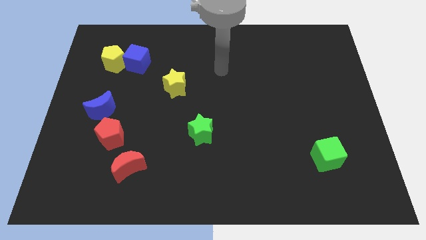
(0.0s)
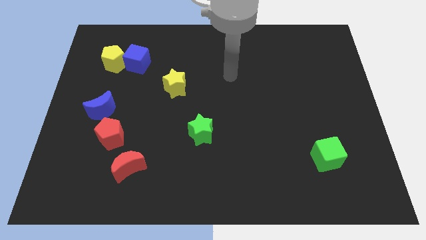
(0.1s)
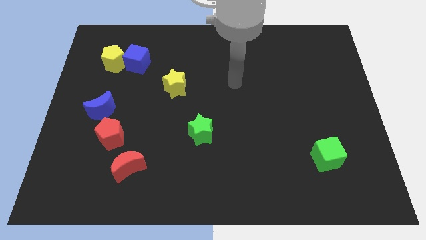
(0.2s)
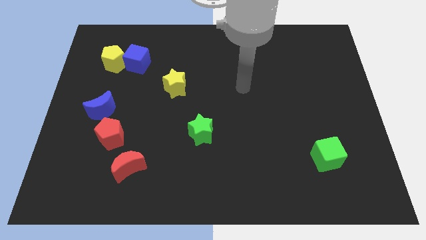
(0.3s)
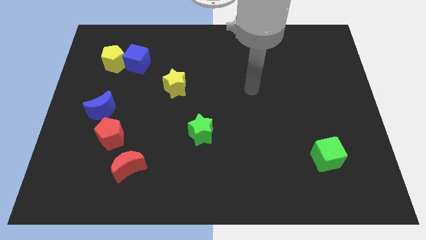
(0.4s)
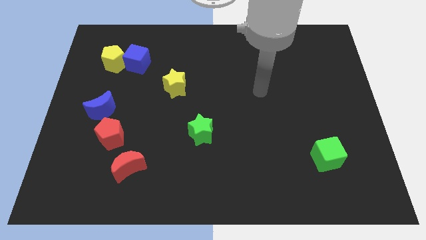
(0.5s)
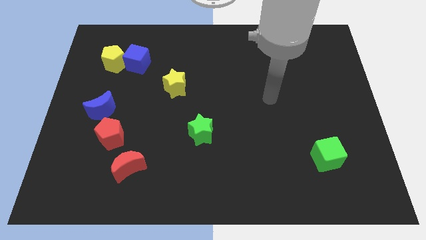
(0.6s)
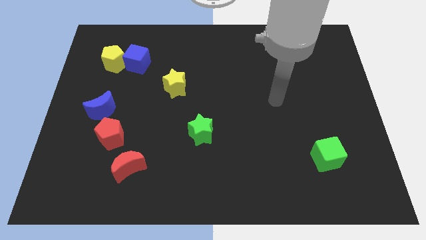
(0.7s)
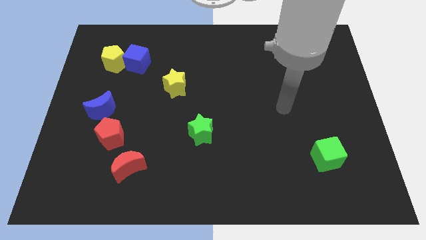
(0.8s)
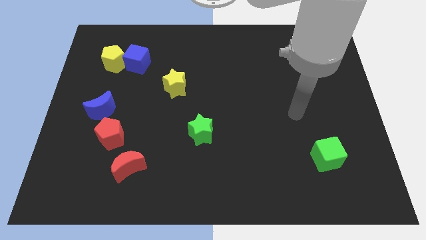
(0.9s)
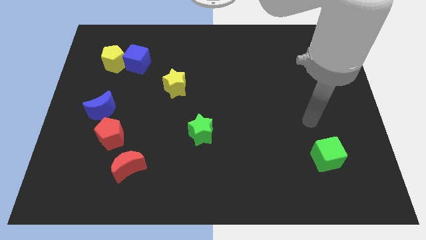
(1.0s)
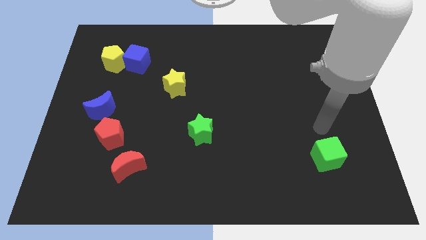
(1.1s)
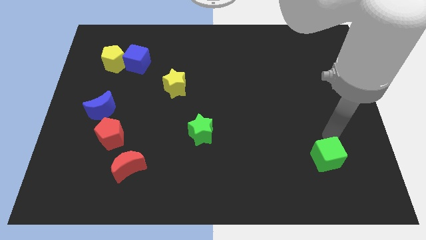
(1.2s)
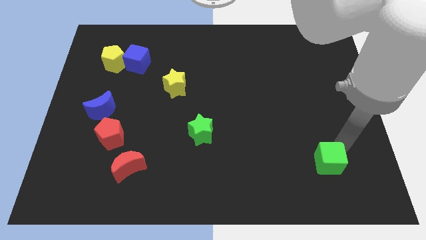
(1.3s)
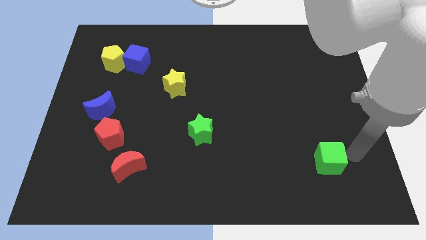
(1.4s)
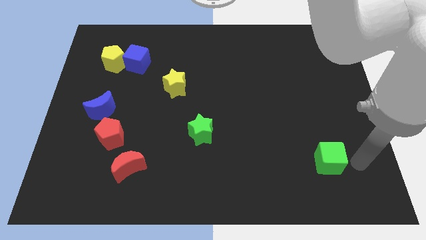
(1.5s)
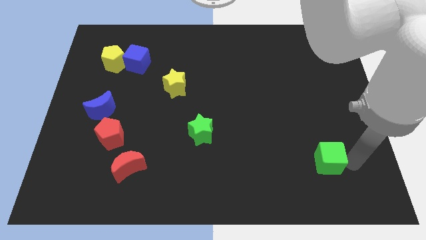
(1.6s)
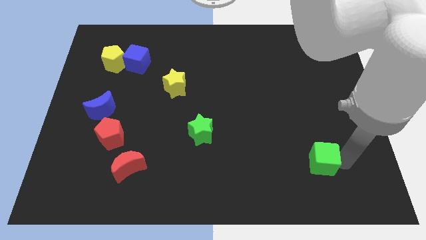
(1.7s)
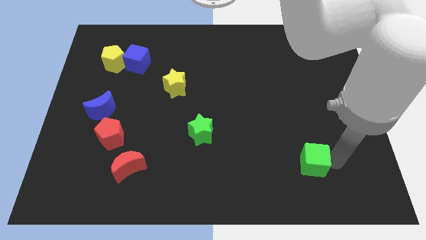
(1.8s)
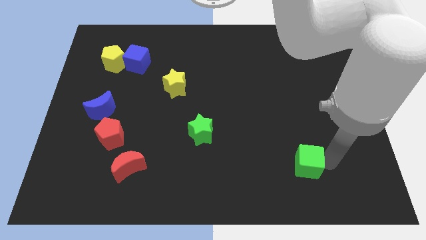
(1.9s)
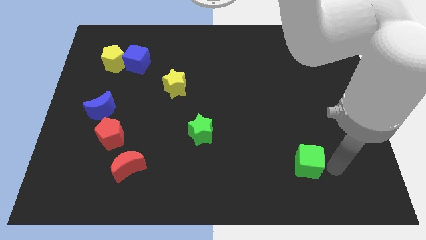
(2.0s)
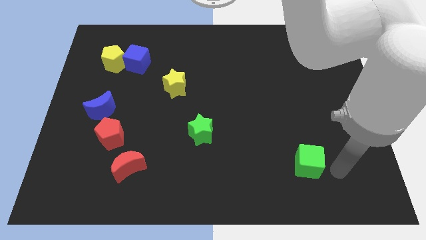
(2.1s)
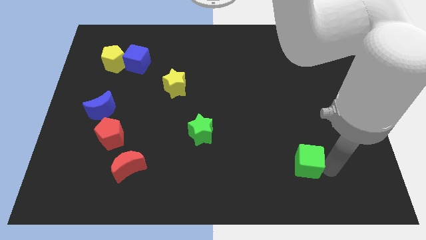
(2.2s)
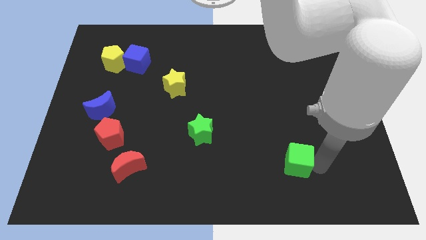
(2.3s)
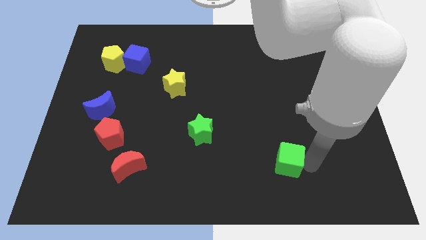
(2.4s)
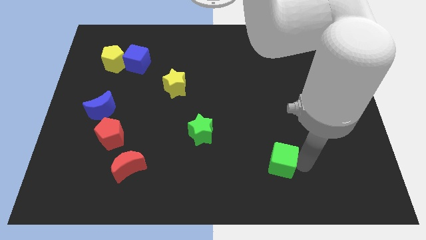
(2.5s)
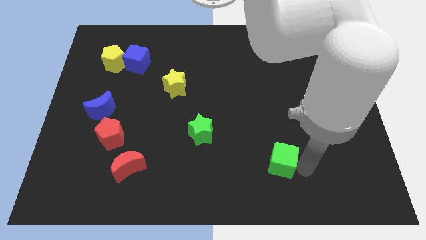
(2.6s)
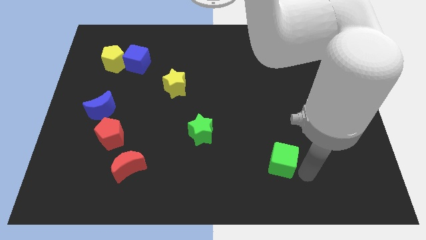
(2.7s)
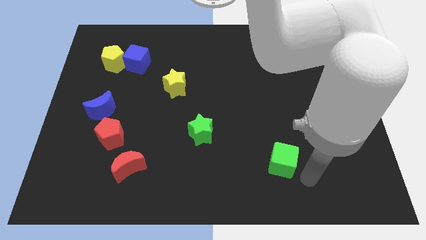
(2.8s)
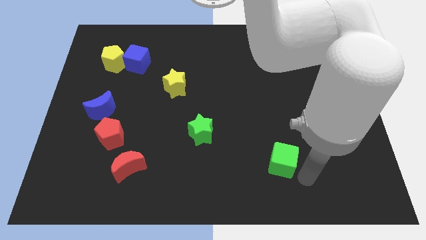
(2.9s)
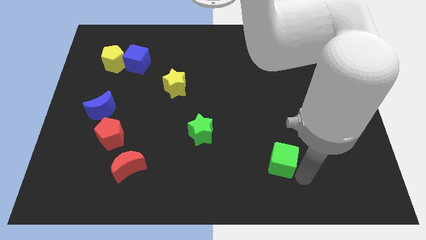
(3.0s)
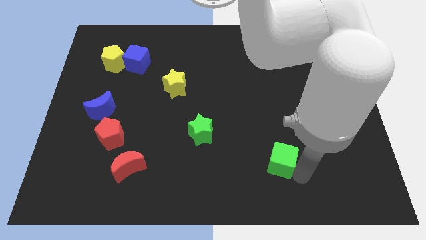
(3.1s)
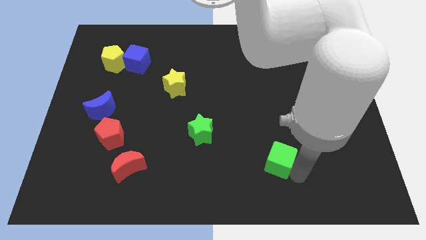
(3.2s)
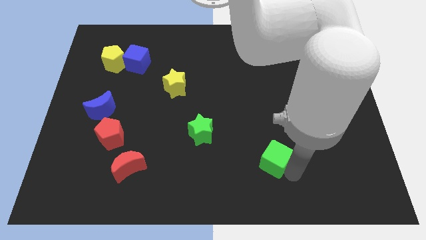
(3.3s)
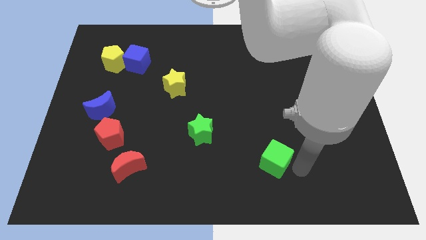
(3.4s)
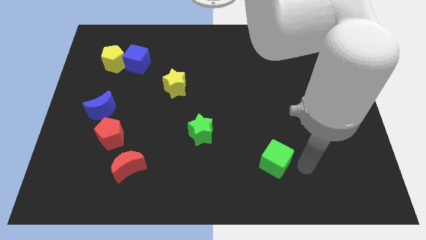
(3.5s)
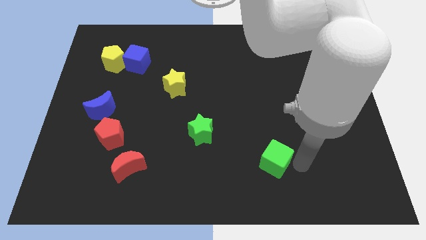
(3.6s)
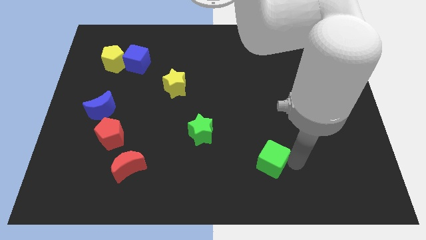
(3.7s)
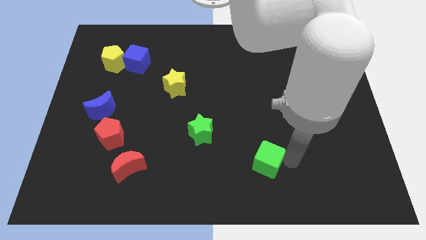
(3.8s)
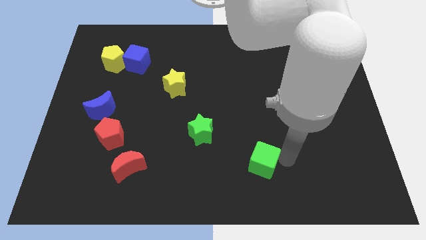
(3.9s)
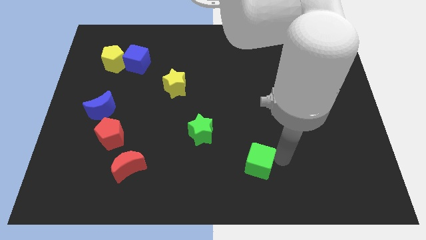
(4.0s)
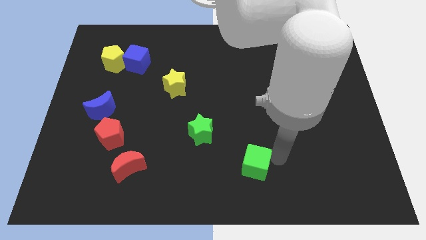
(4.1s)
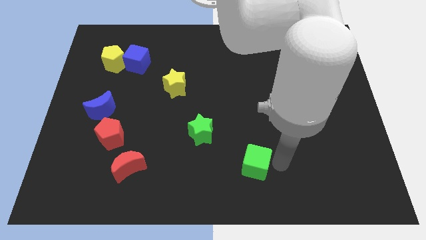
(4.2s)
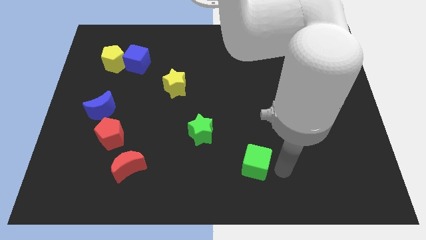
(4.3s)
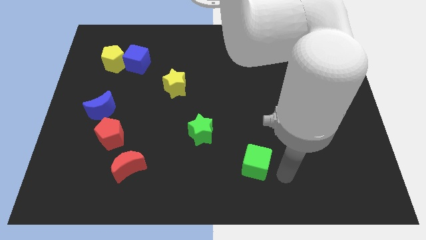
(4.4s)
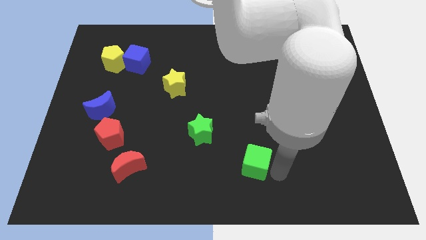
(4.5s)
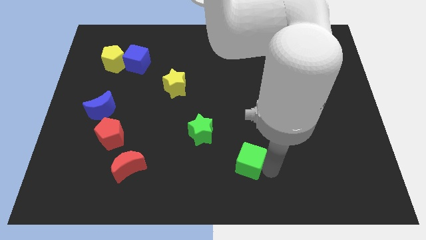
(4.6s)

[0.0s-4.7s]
slide the green cube to the bottom right of the green star

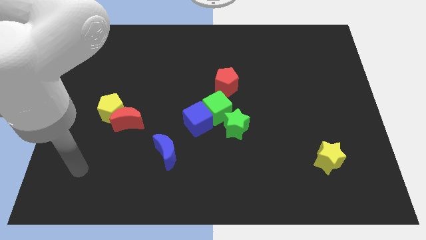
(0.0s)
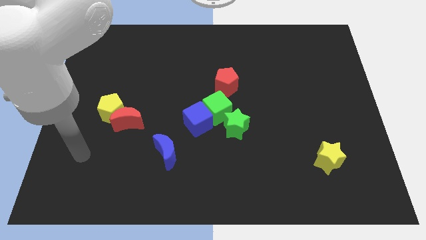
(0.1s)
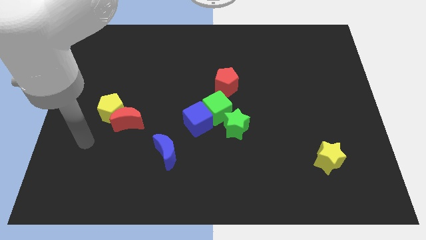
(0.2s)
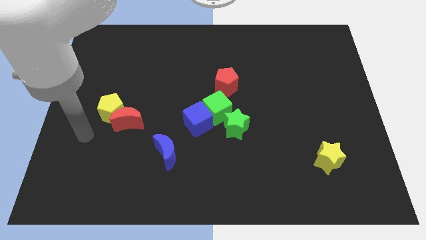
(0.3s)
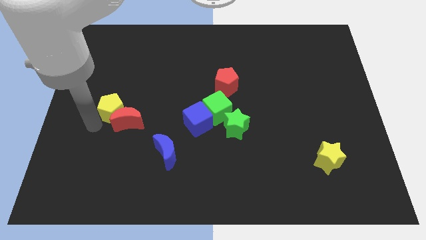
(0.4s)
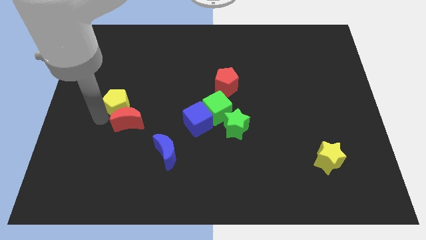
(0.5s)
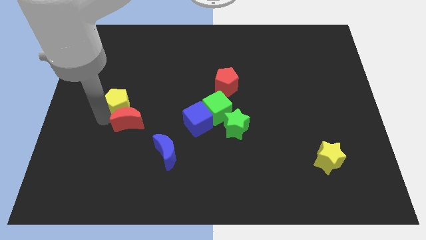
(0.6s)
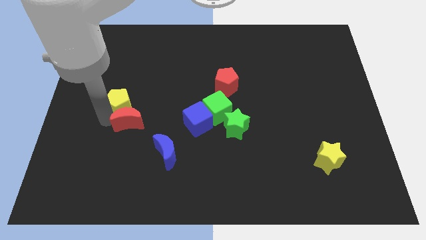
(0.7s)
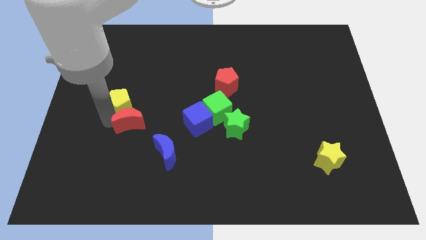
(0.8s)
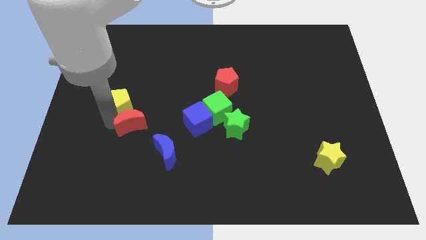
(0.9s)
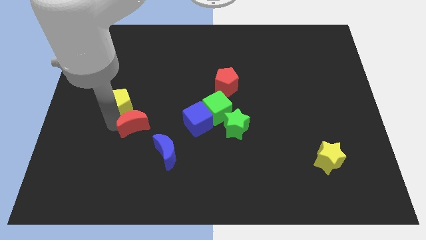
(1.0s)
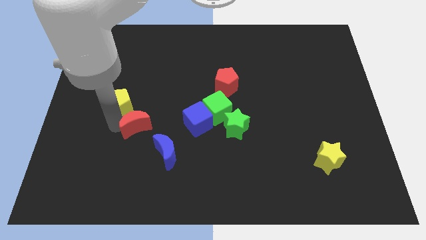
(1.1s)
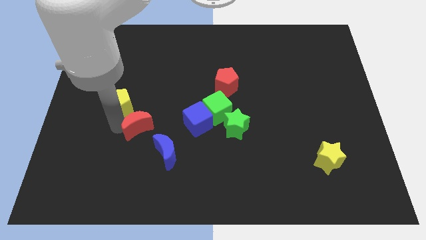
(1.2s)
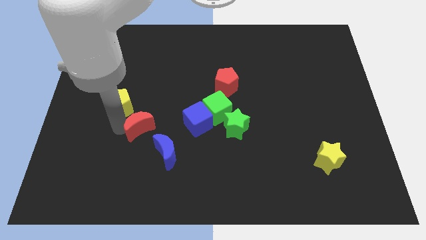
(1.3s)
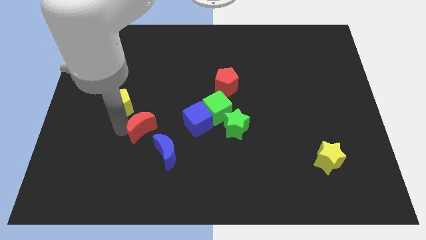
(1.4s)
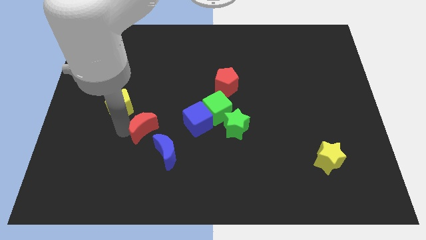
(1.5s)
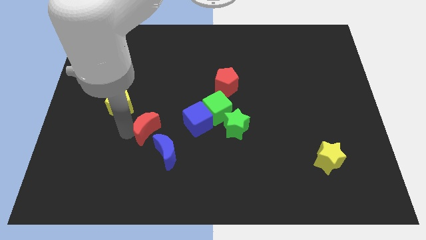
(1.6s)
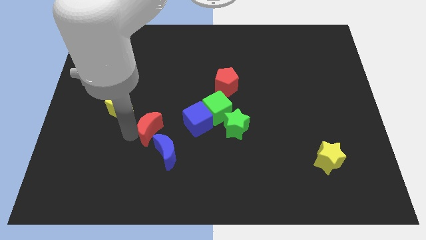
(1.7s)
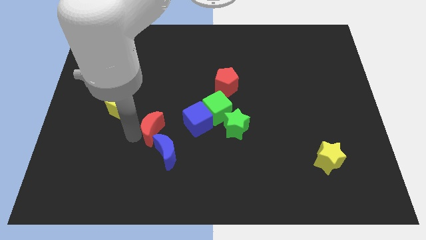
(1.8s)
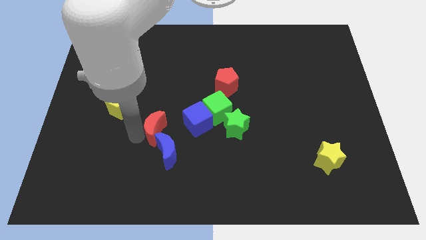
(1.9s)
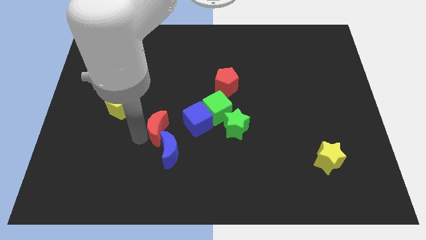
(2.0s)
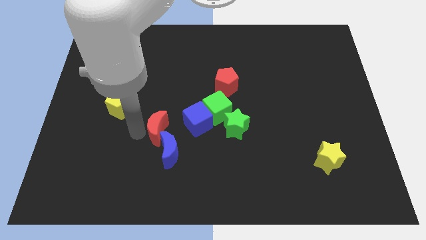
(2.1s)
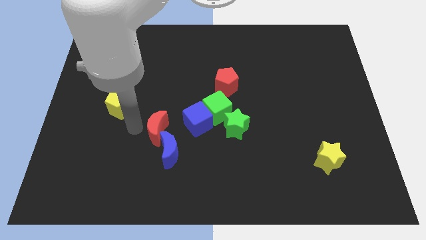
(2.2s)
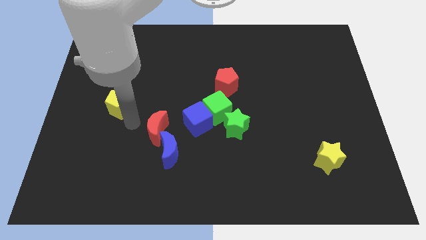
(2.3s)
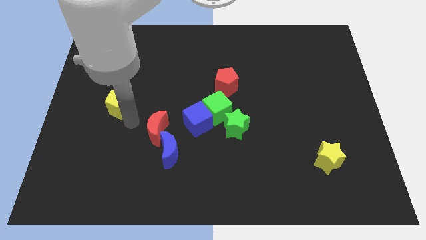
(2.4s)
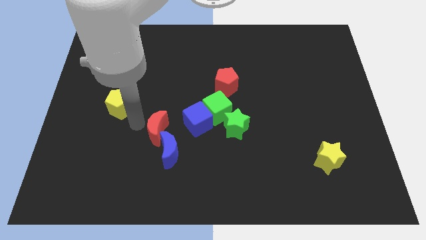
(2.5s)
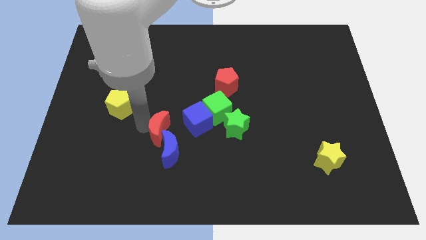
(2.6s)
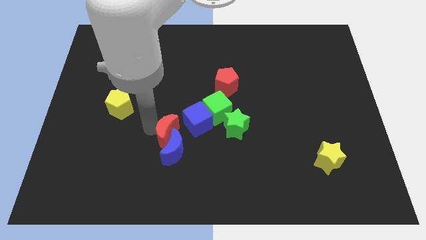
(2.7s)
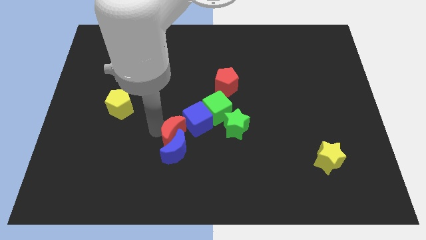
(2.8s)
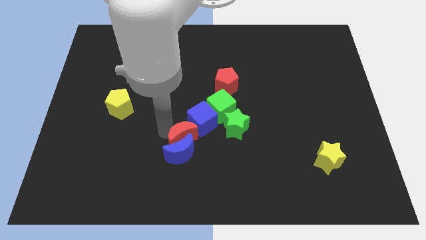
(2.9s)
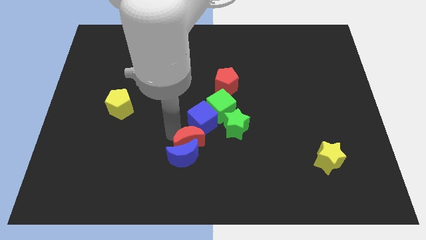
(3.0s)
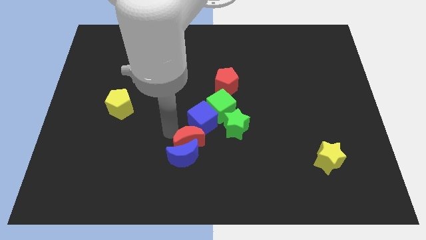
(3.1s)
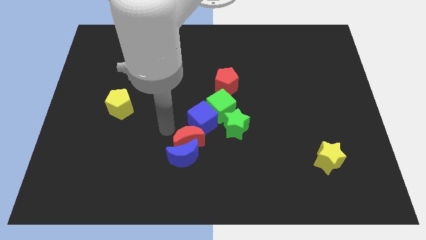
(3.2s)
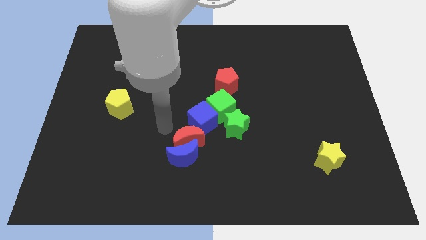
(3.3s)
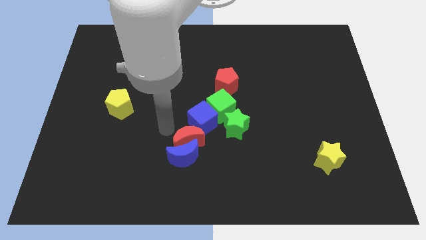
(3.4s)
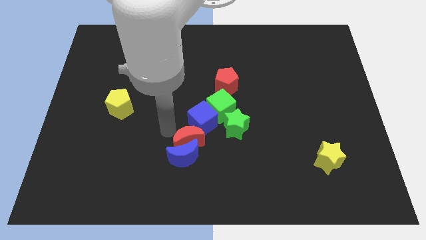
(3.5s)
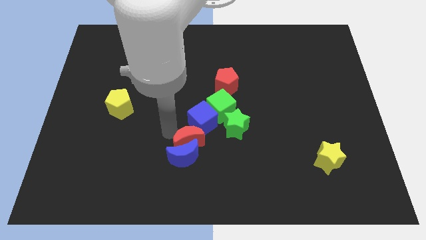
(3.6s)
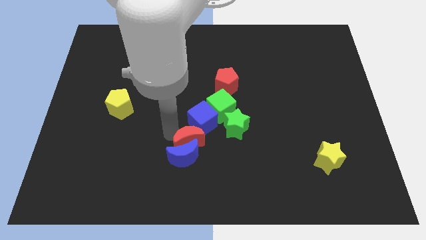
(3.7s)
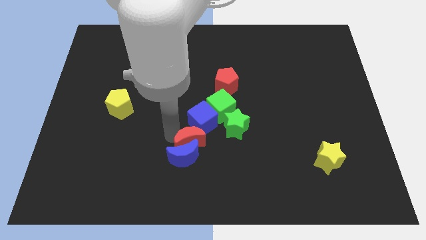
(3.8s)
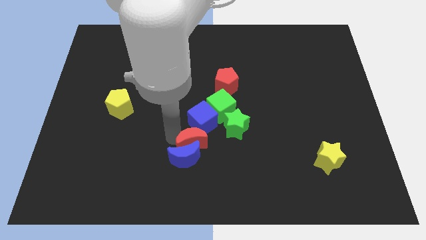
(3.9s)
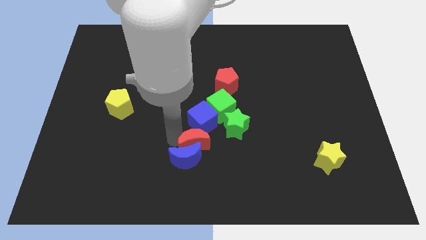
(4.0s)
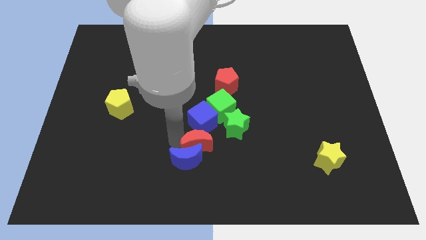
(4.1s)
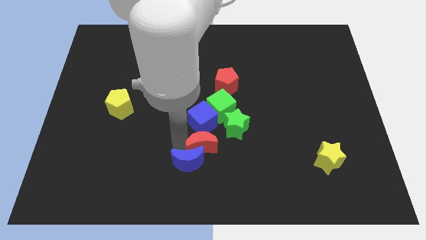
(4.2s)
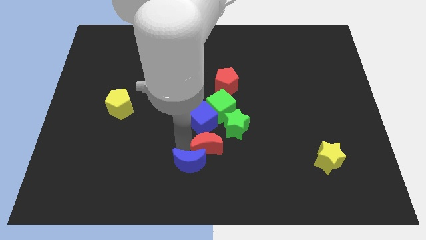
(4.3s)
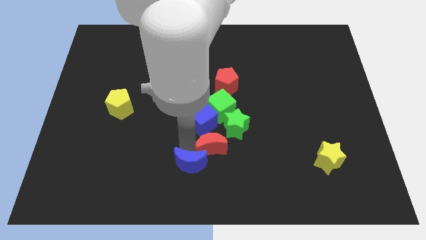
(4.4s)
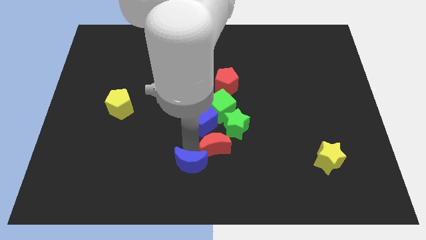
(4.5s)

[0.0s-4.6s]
slide the red moon below the green star
